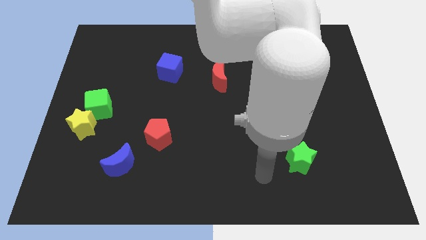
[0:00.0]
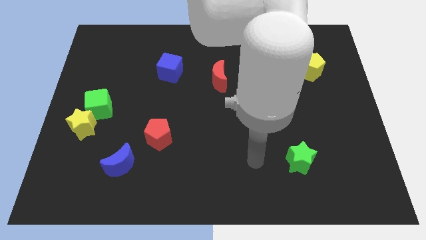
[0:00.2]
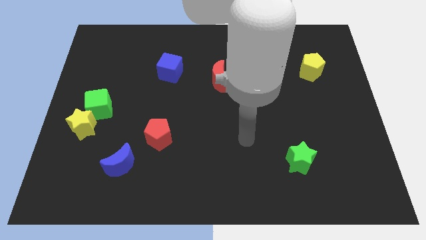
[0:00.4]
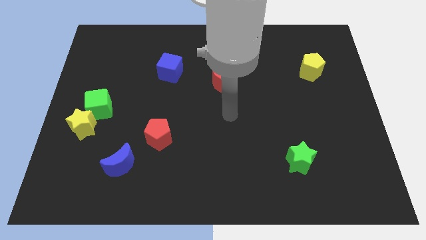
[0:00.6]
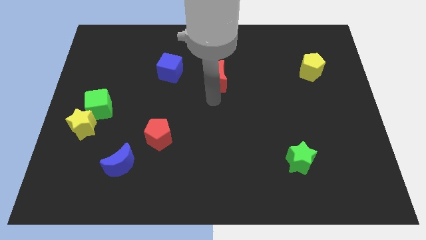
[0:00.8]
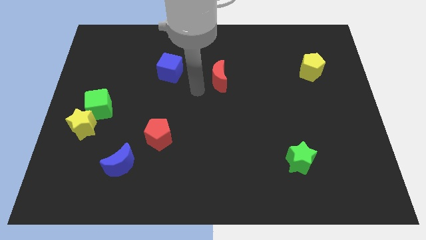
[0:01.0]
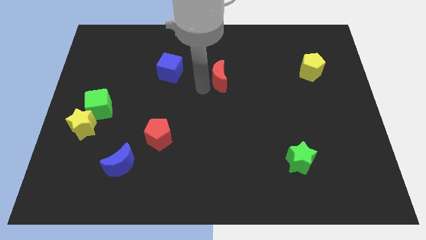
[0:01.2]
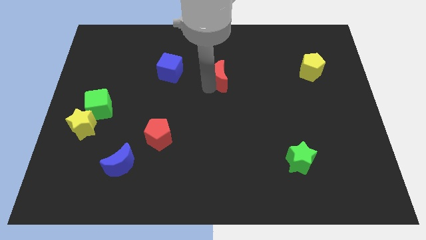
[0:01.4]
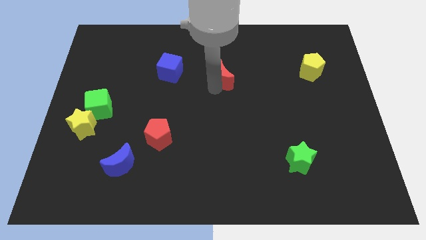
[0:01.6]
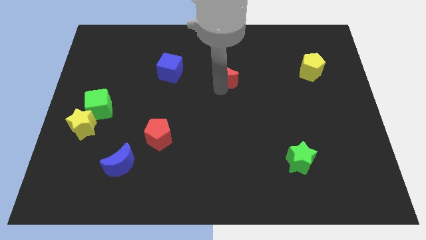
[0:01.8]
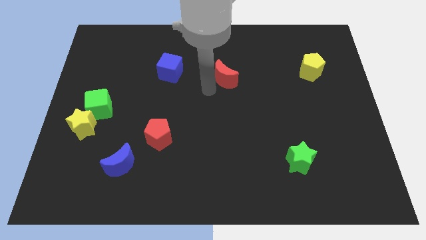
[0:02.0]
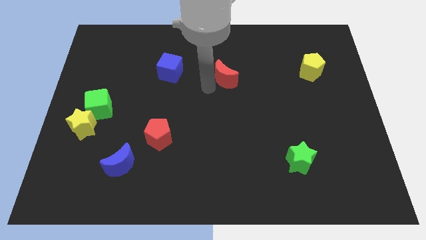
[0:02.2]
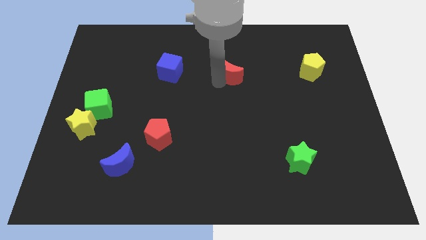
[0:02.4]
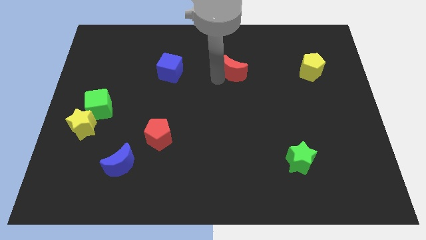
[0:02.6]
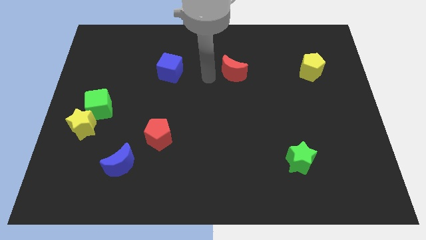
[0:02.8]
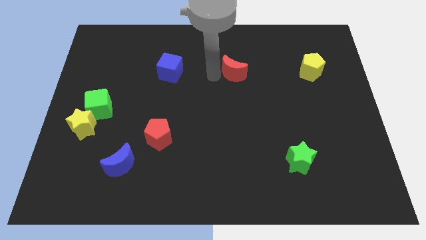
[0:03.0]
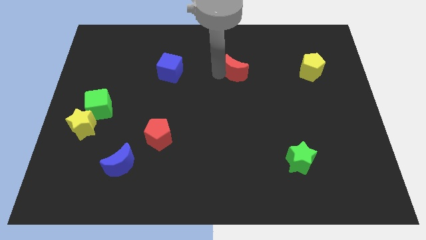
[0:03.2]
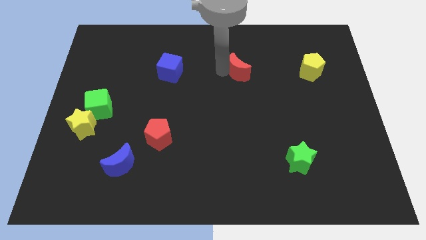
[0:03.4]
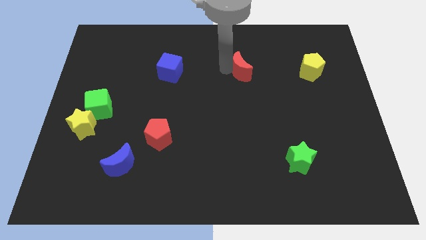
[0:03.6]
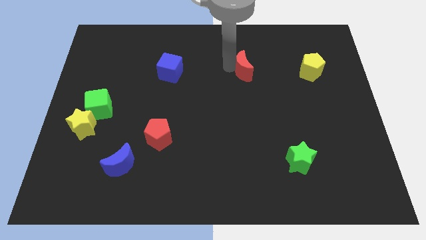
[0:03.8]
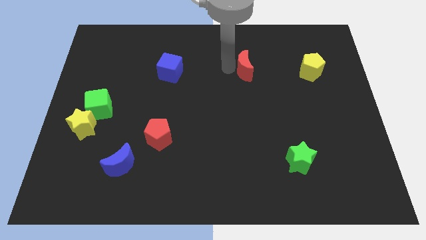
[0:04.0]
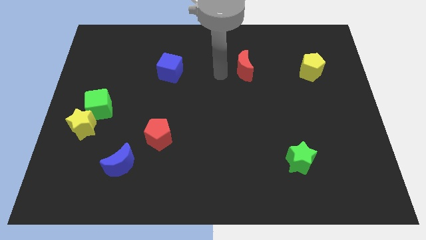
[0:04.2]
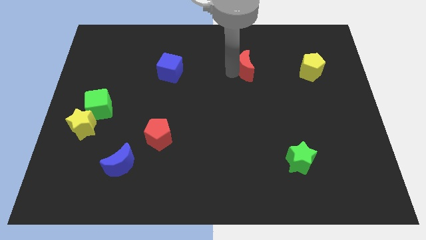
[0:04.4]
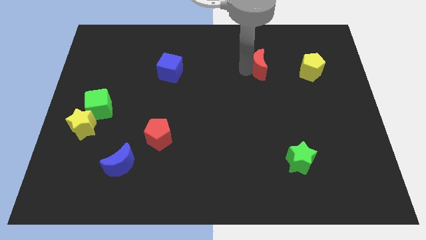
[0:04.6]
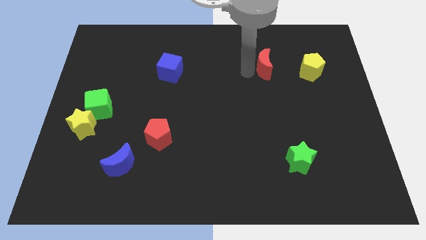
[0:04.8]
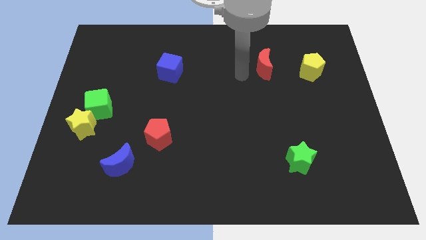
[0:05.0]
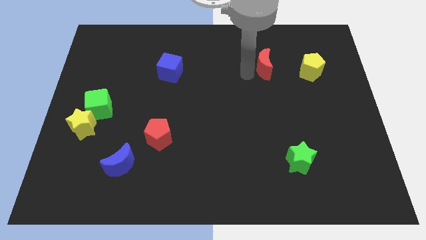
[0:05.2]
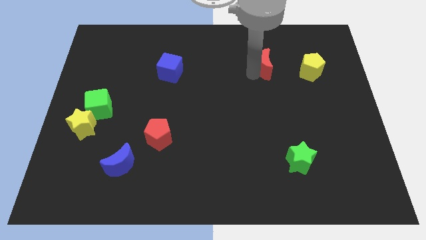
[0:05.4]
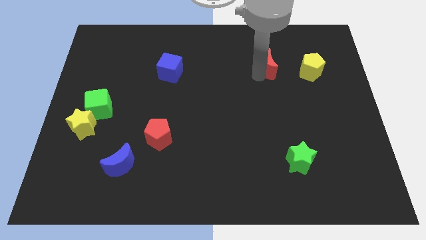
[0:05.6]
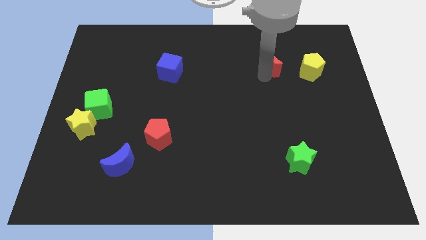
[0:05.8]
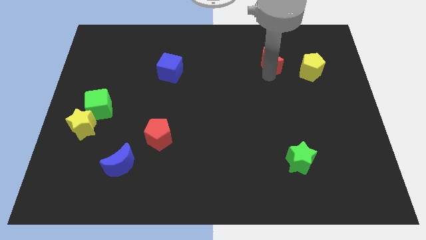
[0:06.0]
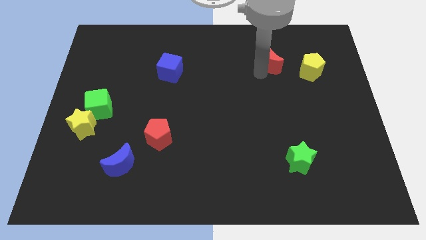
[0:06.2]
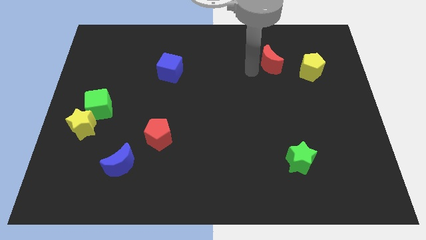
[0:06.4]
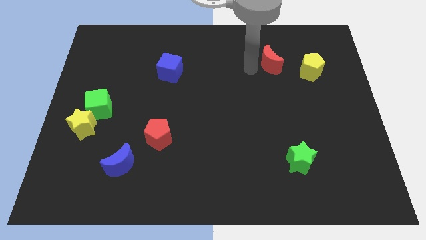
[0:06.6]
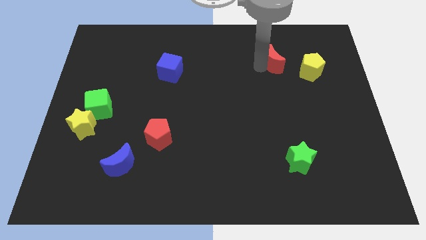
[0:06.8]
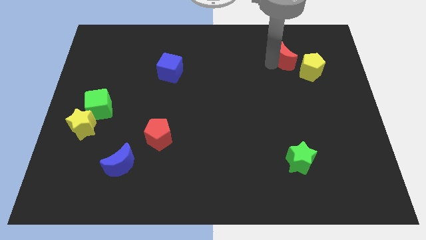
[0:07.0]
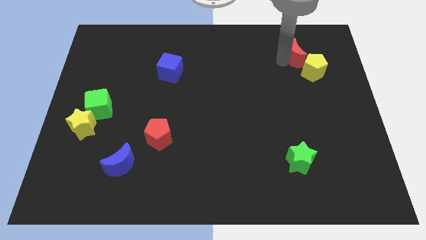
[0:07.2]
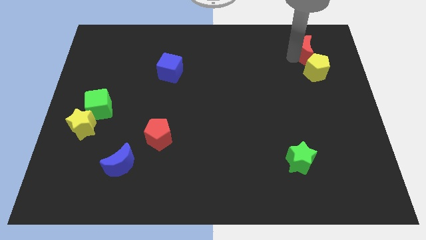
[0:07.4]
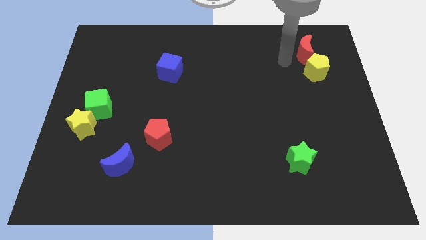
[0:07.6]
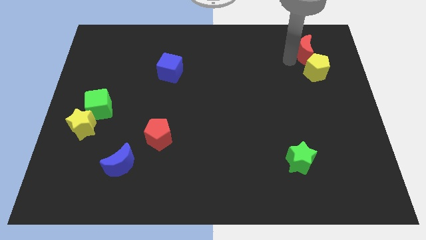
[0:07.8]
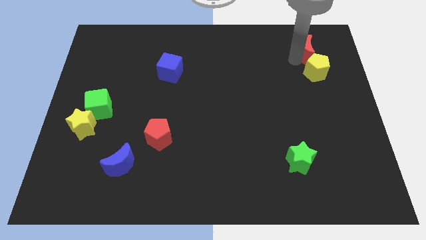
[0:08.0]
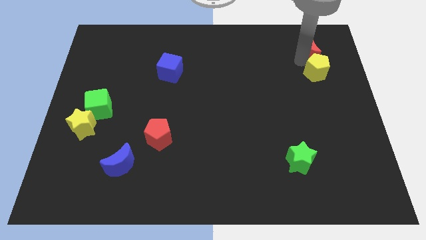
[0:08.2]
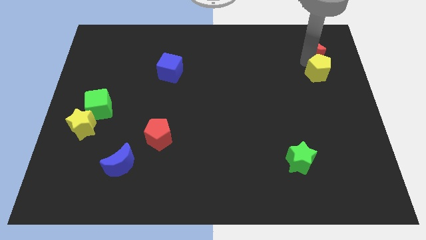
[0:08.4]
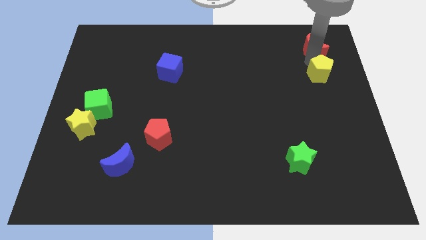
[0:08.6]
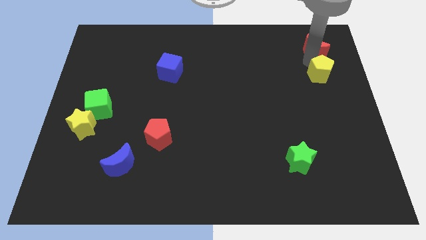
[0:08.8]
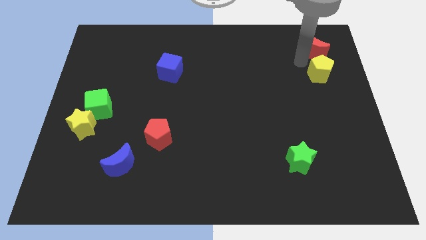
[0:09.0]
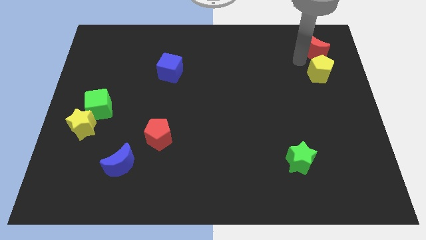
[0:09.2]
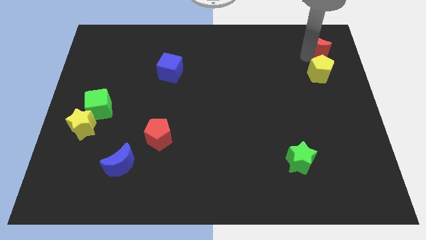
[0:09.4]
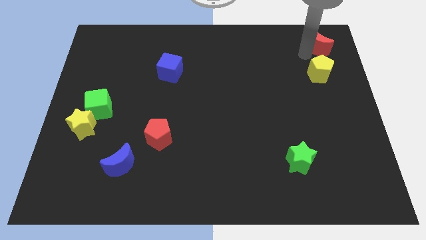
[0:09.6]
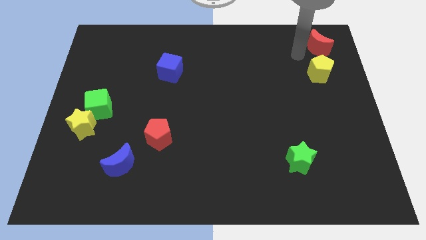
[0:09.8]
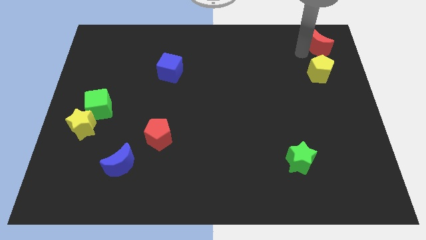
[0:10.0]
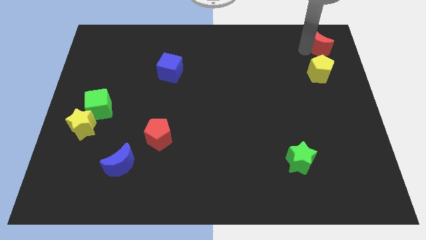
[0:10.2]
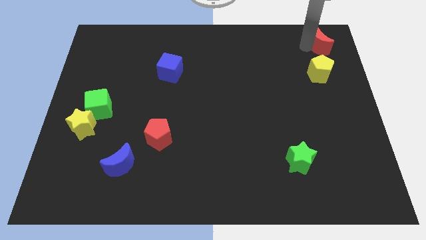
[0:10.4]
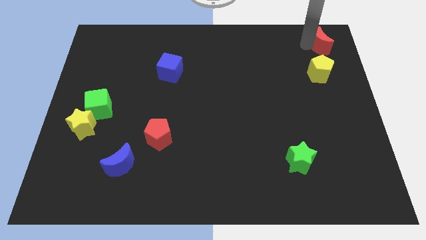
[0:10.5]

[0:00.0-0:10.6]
slide the red moon to the top right corner

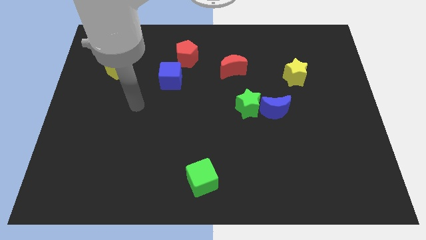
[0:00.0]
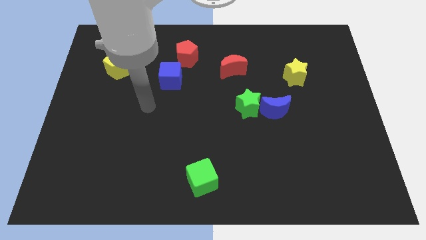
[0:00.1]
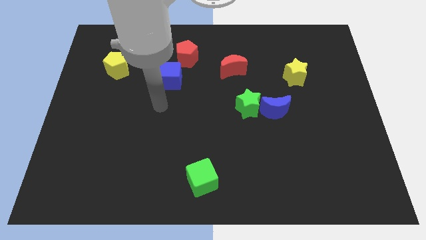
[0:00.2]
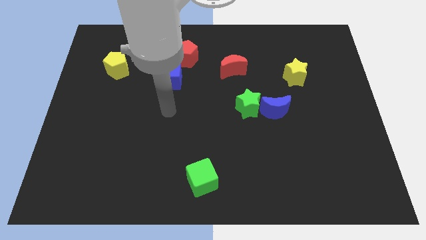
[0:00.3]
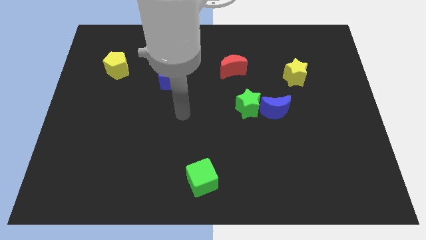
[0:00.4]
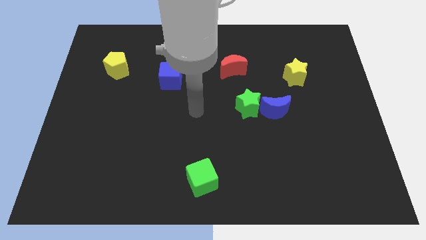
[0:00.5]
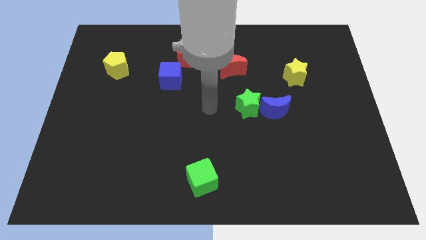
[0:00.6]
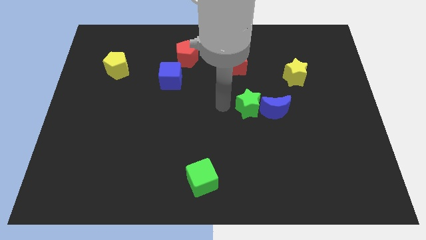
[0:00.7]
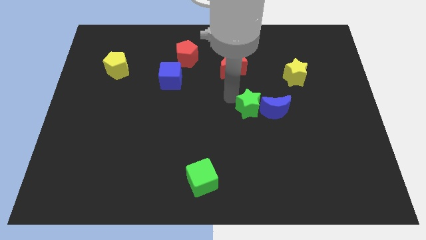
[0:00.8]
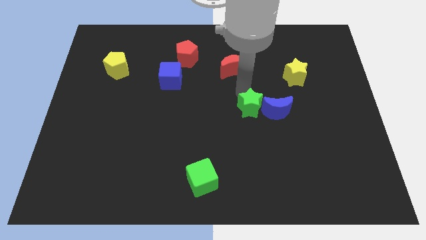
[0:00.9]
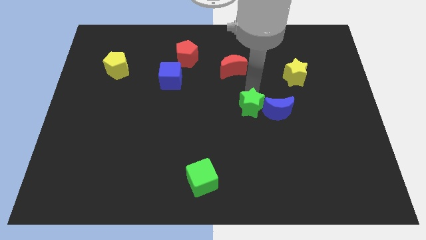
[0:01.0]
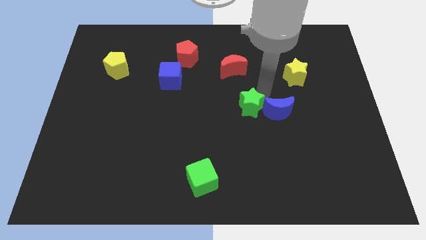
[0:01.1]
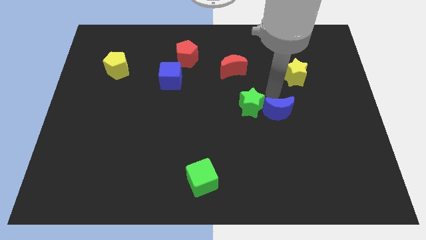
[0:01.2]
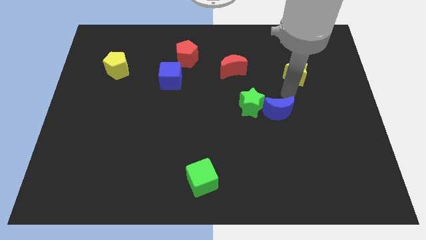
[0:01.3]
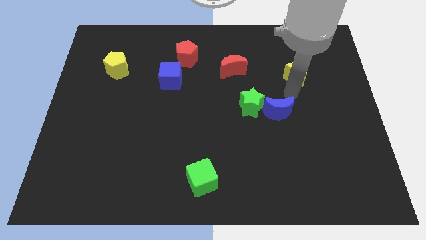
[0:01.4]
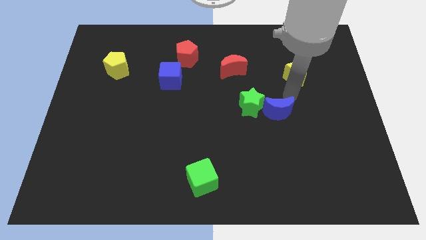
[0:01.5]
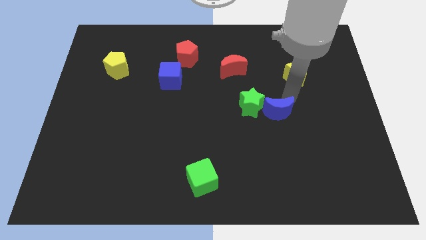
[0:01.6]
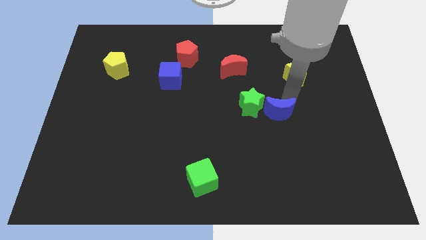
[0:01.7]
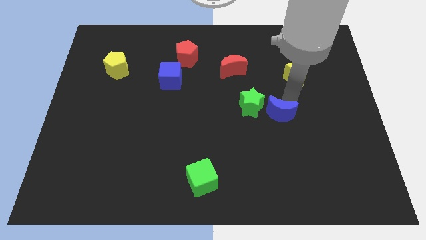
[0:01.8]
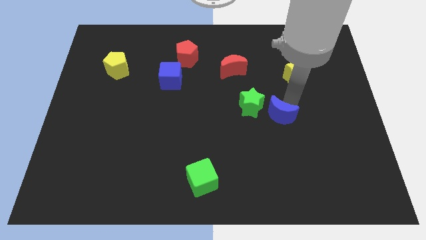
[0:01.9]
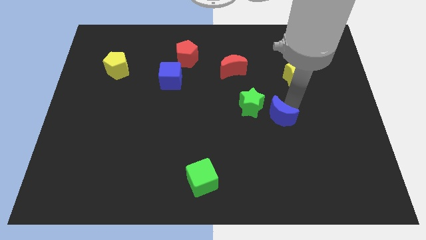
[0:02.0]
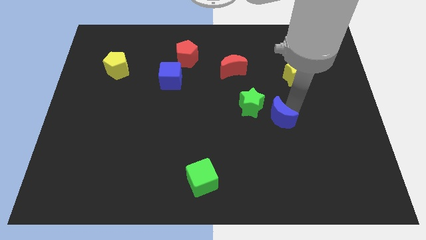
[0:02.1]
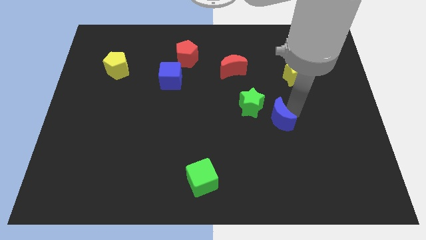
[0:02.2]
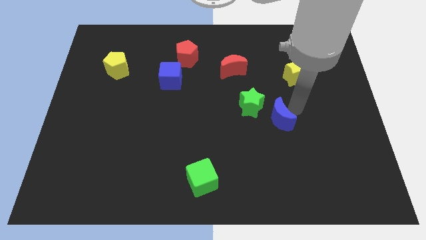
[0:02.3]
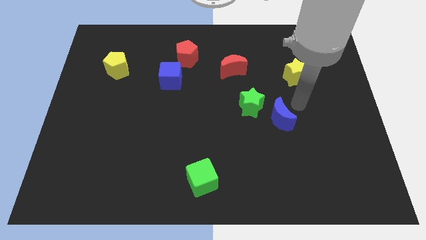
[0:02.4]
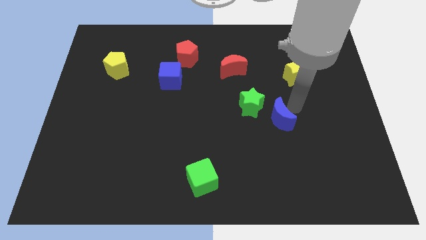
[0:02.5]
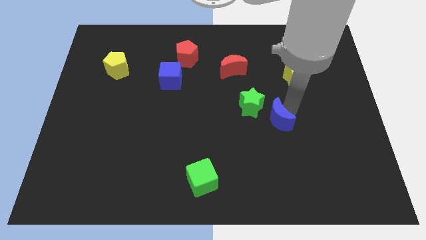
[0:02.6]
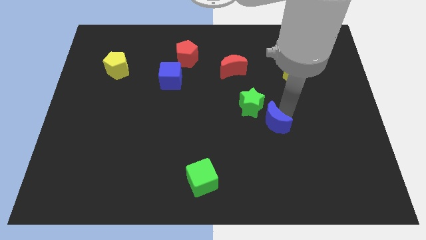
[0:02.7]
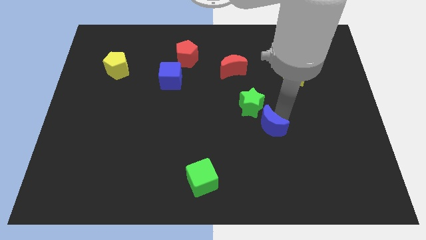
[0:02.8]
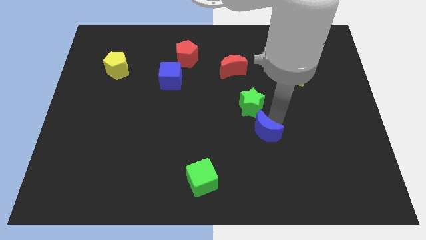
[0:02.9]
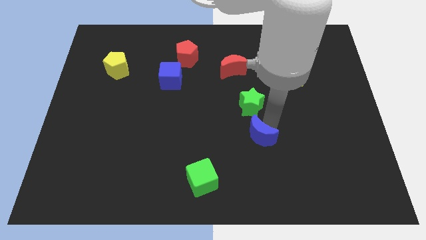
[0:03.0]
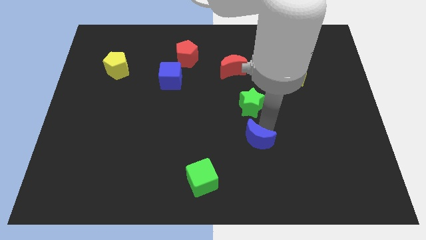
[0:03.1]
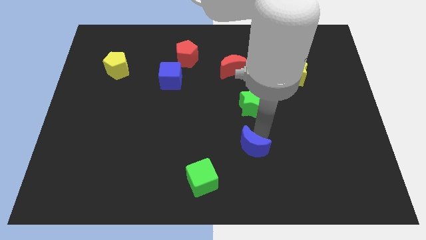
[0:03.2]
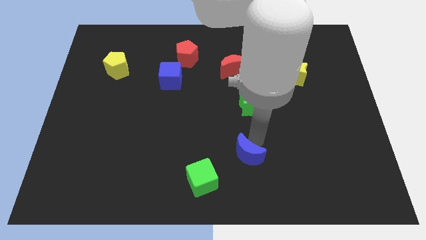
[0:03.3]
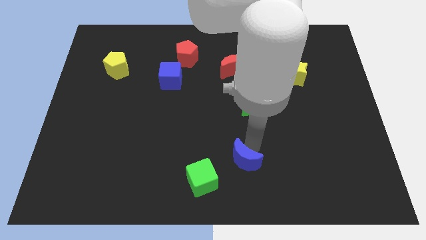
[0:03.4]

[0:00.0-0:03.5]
move the blue moon to the bottom side
